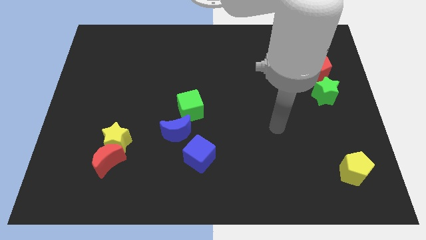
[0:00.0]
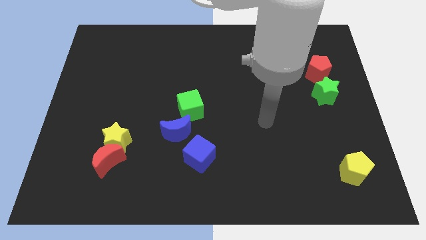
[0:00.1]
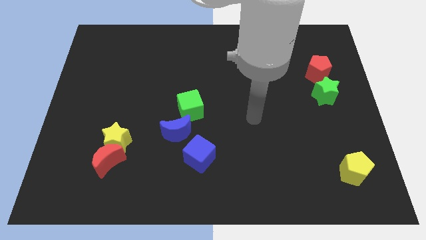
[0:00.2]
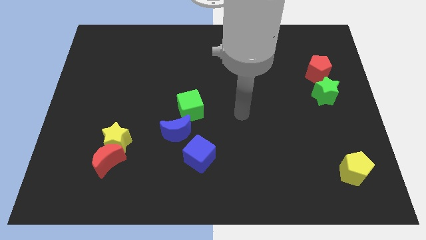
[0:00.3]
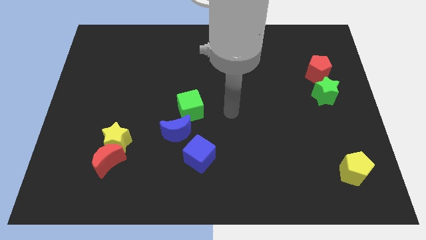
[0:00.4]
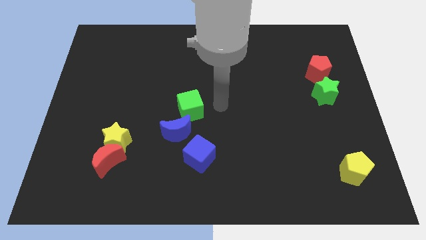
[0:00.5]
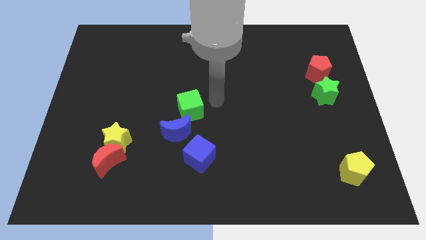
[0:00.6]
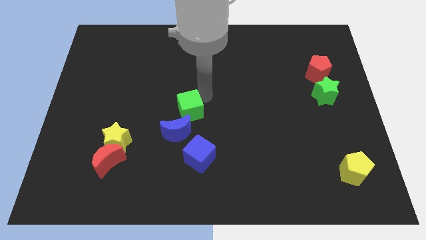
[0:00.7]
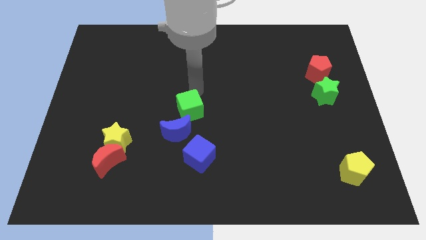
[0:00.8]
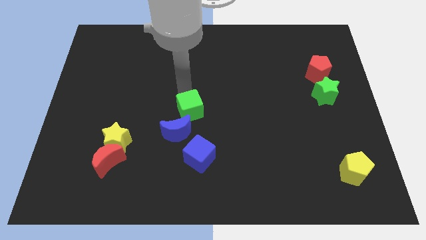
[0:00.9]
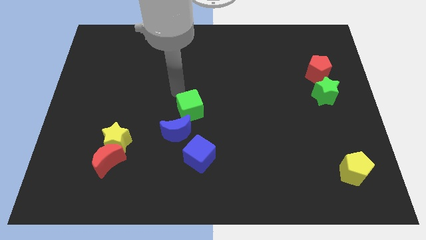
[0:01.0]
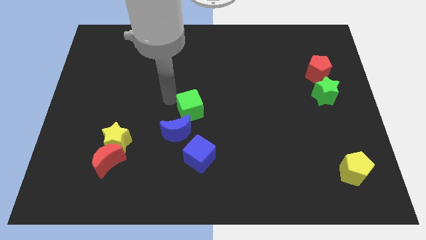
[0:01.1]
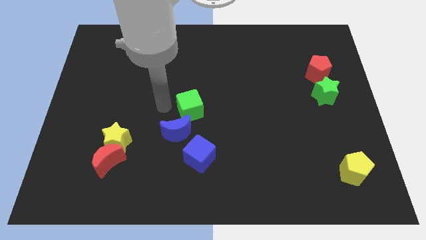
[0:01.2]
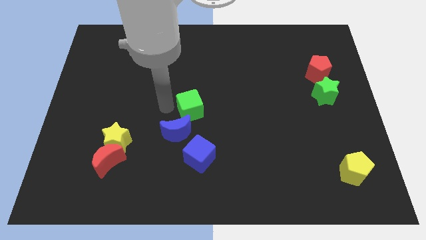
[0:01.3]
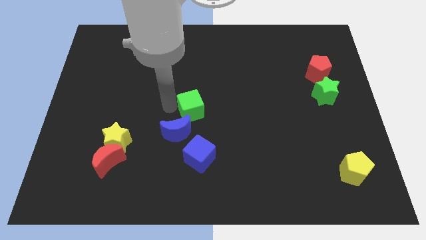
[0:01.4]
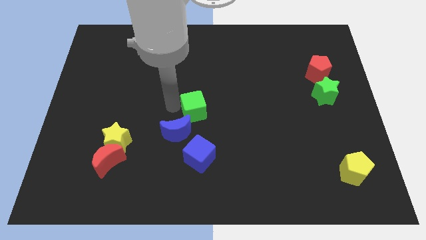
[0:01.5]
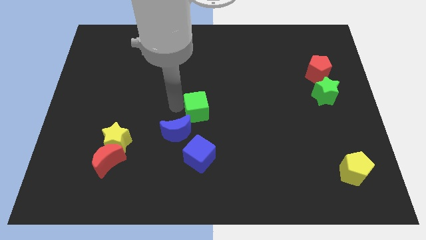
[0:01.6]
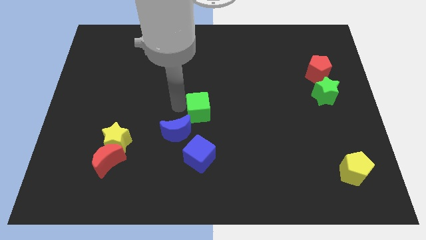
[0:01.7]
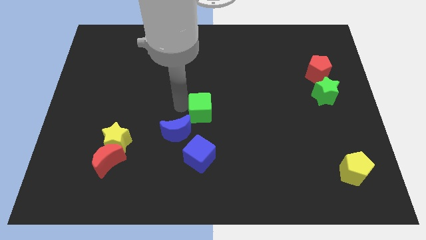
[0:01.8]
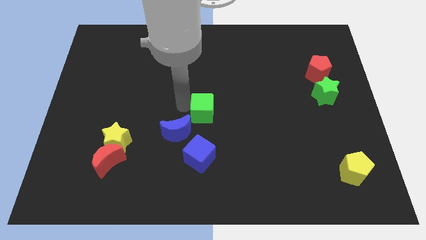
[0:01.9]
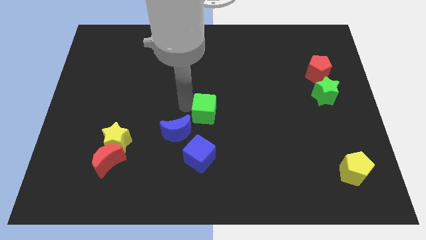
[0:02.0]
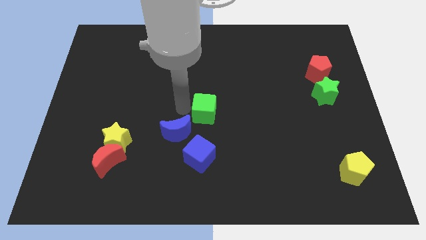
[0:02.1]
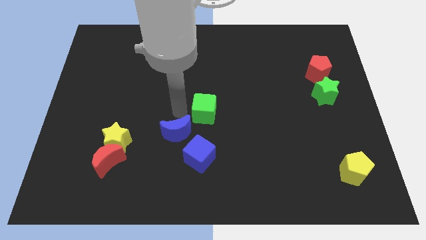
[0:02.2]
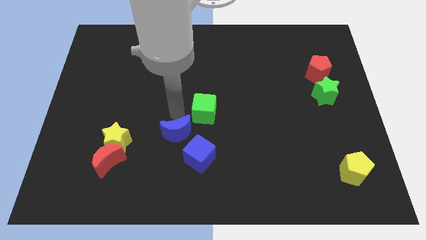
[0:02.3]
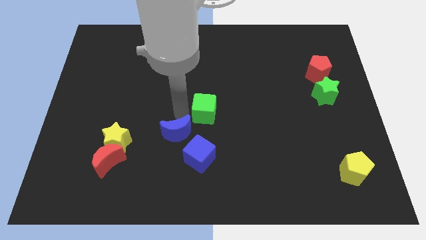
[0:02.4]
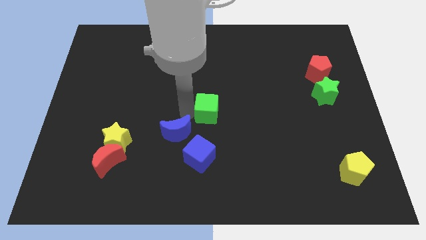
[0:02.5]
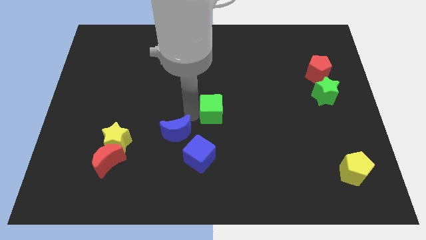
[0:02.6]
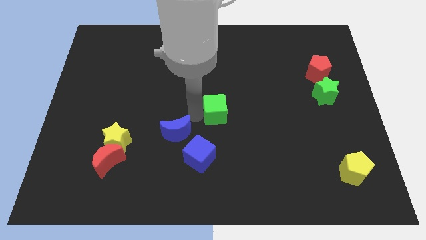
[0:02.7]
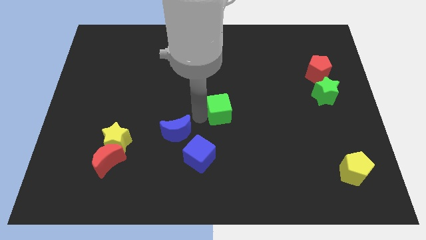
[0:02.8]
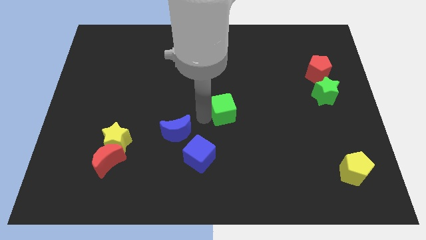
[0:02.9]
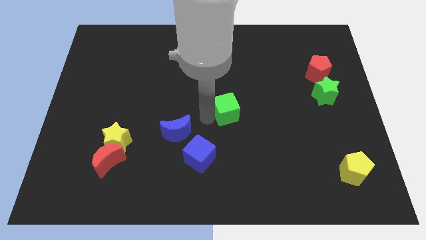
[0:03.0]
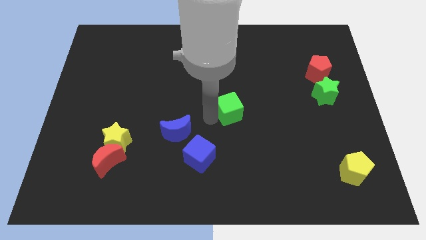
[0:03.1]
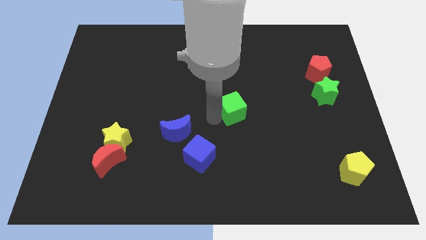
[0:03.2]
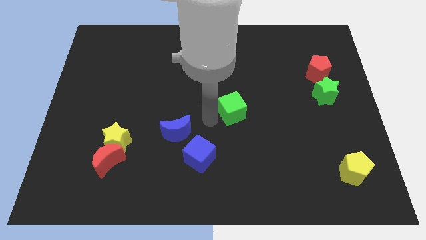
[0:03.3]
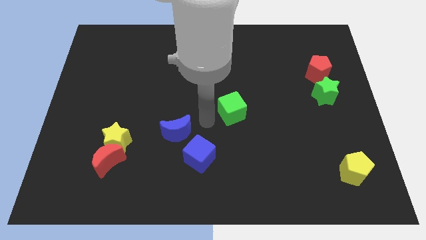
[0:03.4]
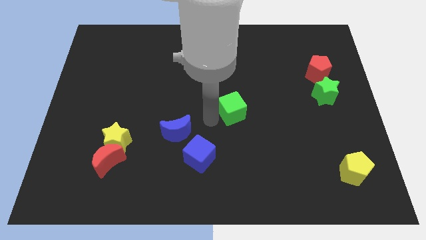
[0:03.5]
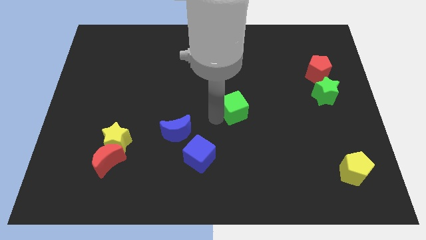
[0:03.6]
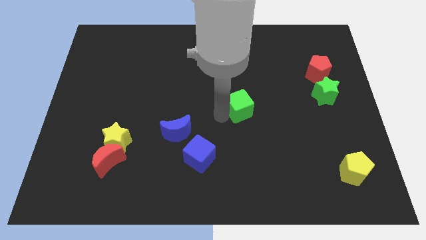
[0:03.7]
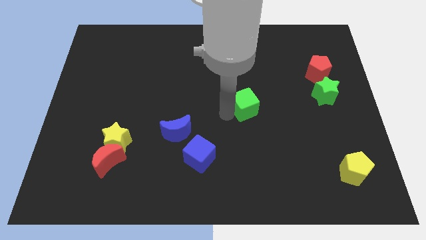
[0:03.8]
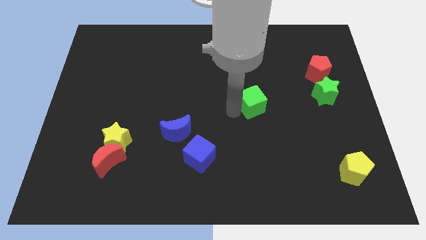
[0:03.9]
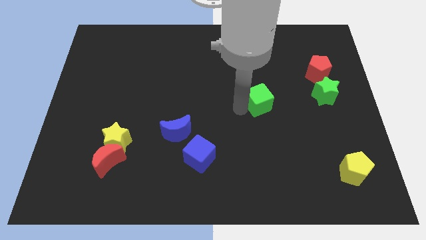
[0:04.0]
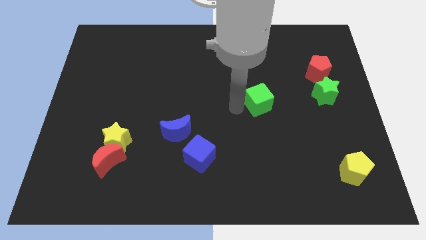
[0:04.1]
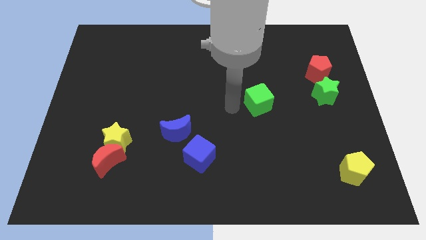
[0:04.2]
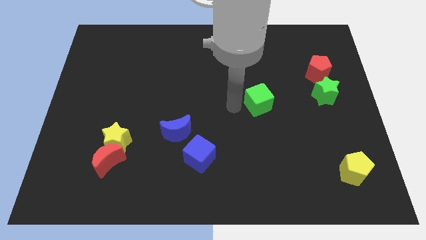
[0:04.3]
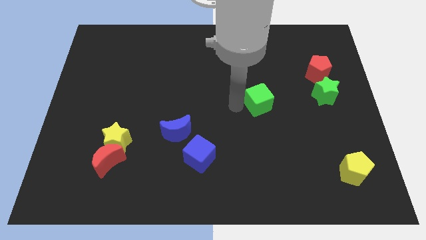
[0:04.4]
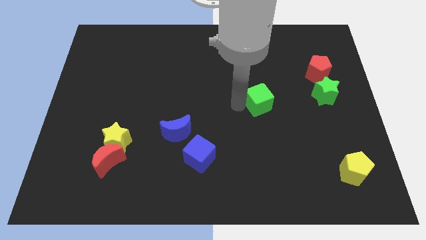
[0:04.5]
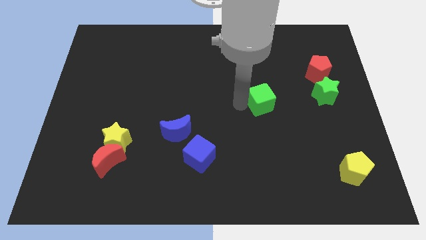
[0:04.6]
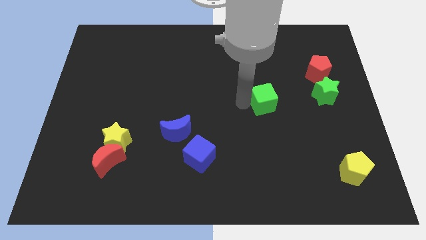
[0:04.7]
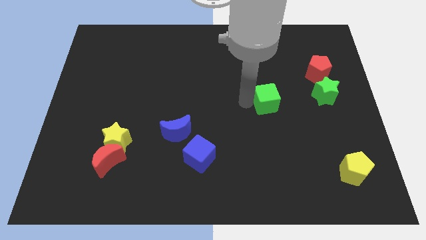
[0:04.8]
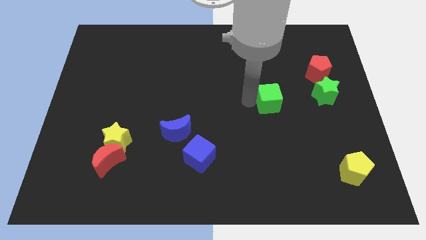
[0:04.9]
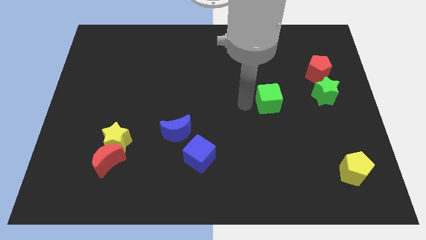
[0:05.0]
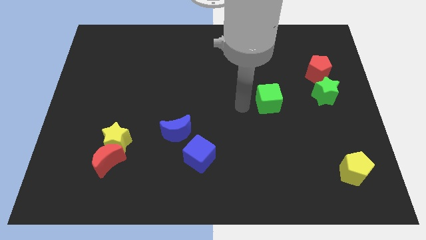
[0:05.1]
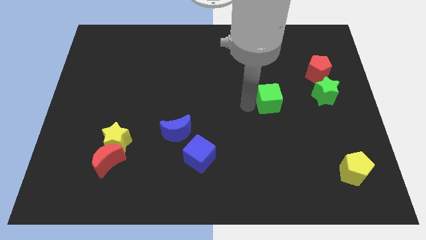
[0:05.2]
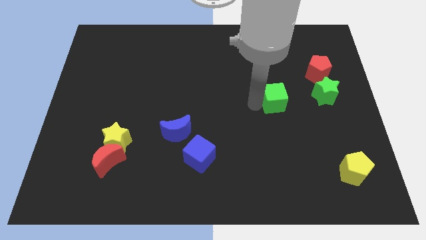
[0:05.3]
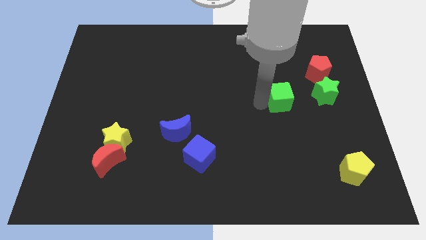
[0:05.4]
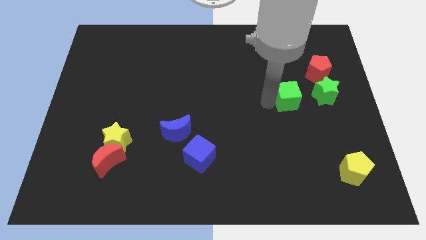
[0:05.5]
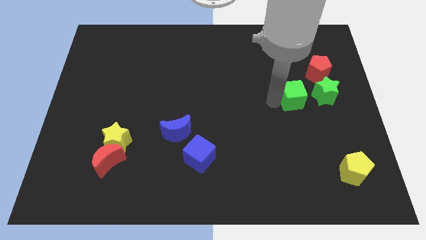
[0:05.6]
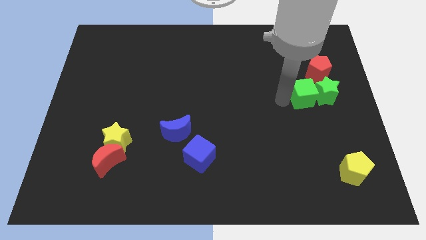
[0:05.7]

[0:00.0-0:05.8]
slide the green cube towards the green star

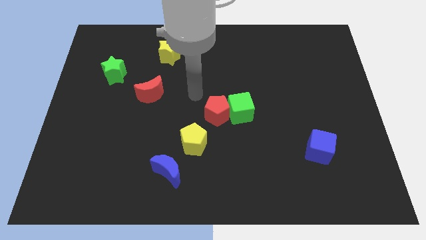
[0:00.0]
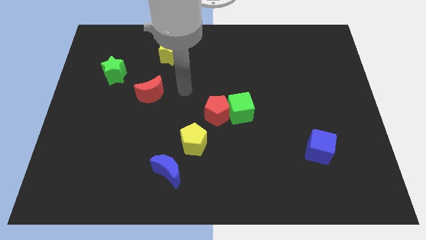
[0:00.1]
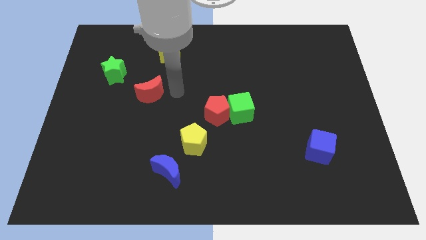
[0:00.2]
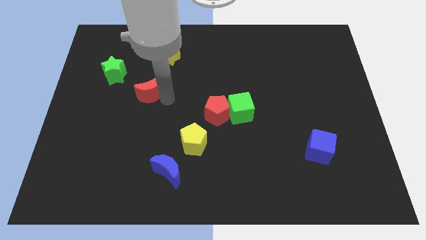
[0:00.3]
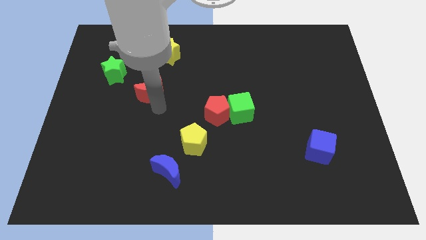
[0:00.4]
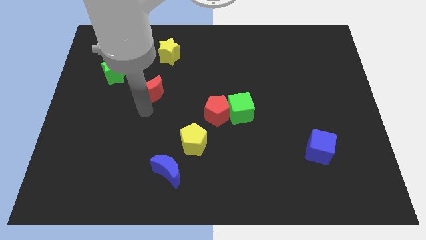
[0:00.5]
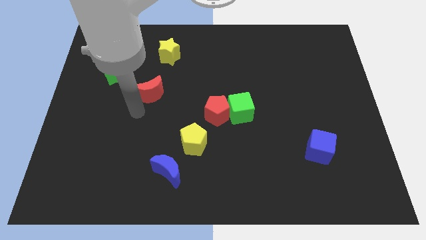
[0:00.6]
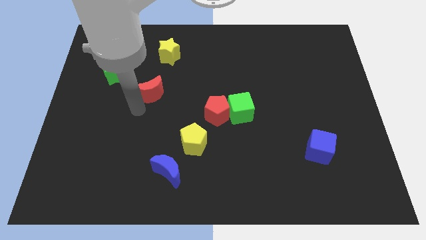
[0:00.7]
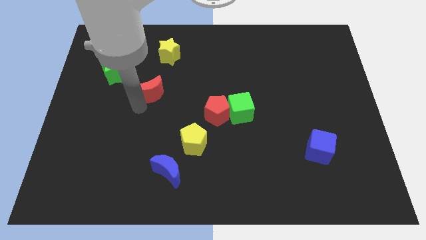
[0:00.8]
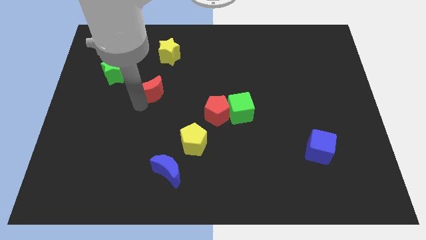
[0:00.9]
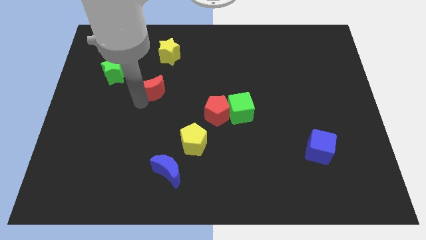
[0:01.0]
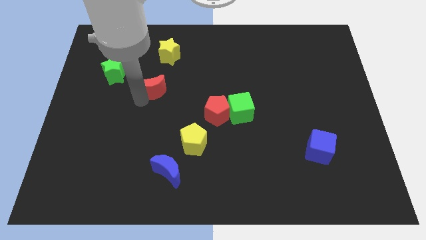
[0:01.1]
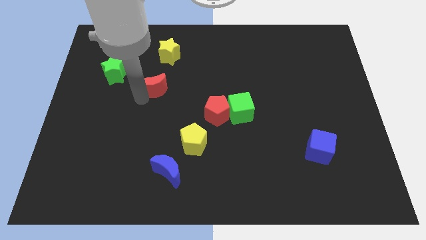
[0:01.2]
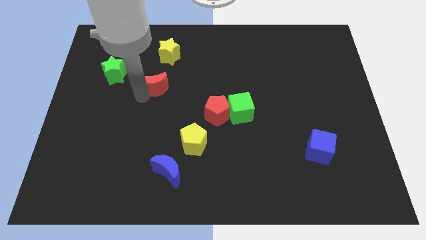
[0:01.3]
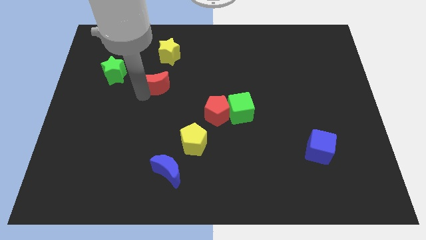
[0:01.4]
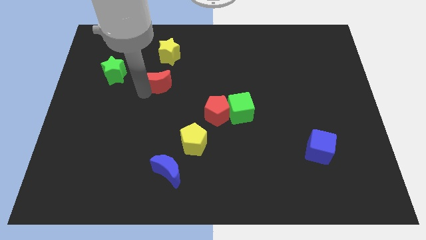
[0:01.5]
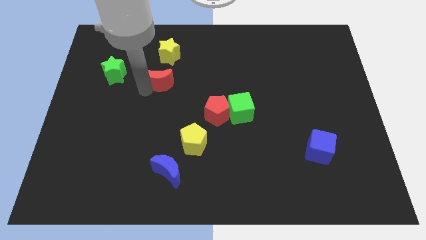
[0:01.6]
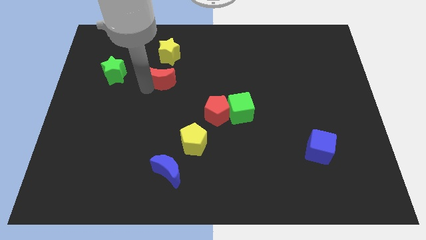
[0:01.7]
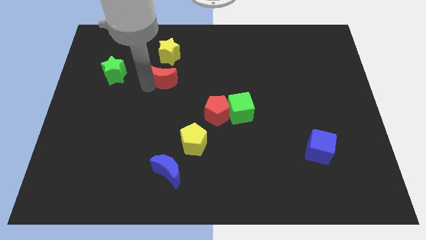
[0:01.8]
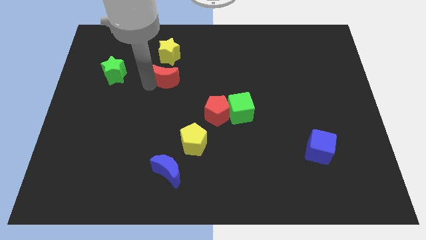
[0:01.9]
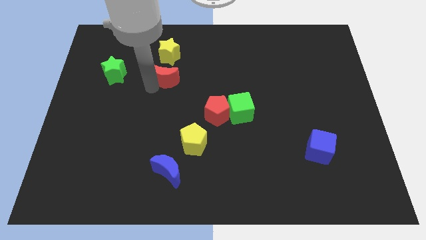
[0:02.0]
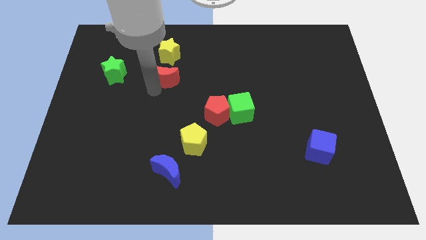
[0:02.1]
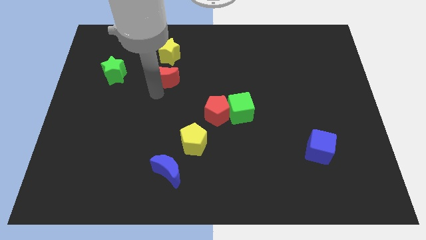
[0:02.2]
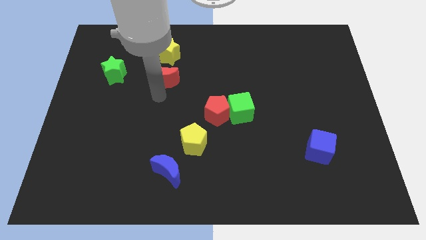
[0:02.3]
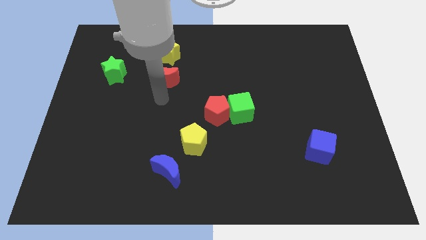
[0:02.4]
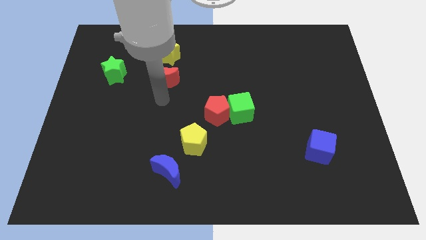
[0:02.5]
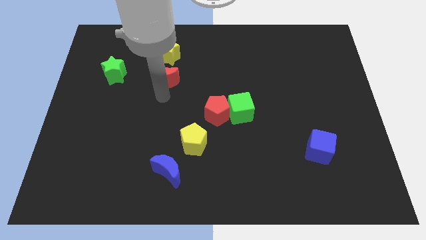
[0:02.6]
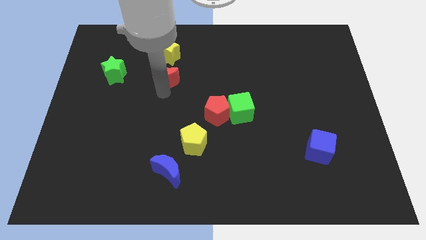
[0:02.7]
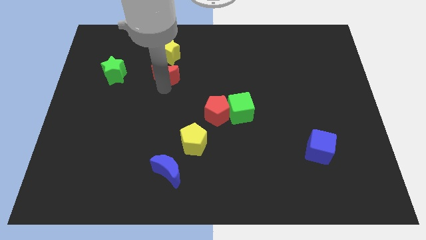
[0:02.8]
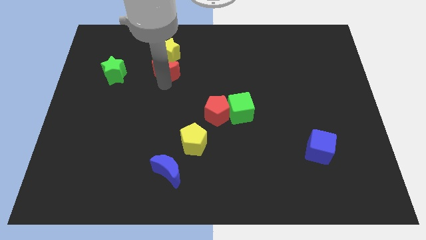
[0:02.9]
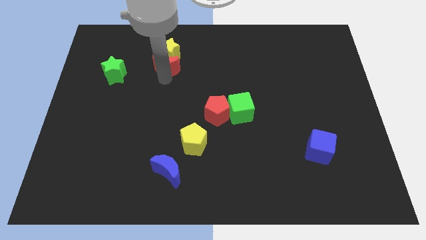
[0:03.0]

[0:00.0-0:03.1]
put the red moon towards the yellow star
